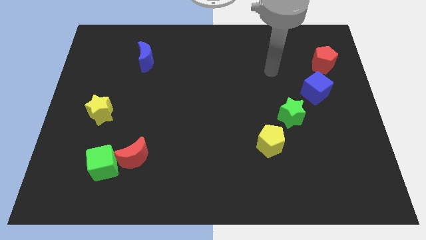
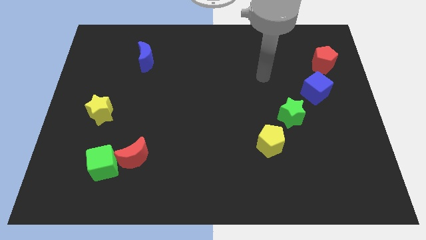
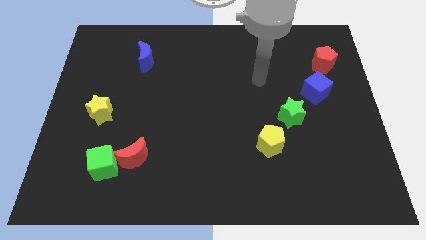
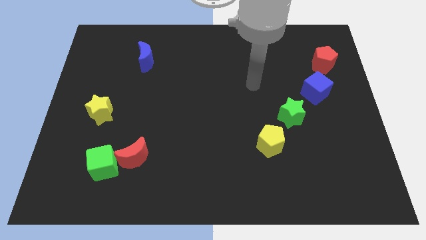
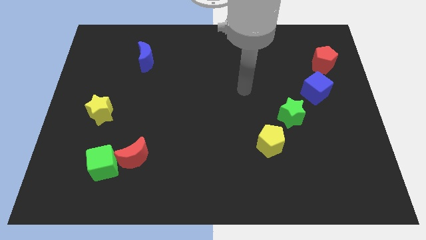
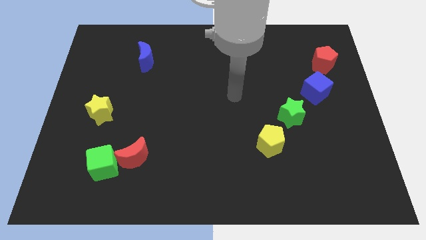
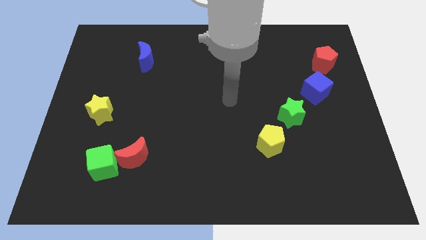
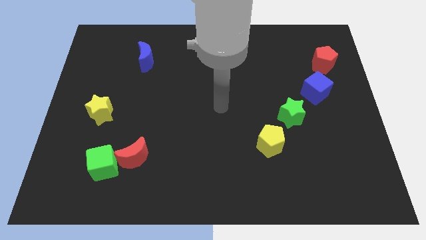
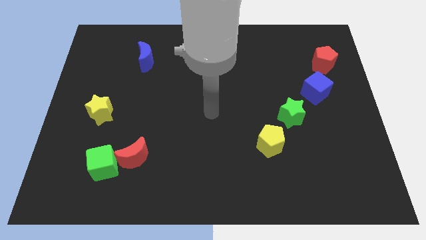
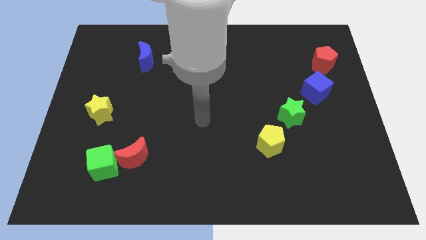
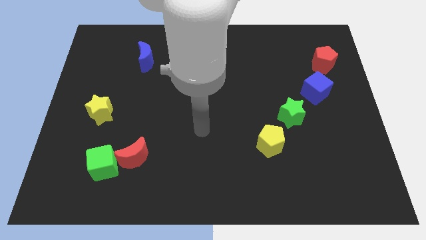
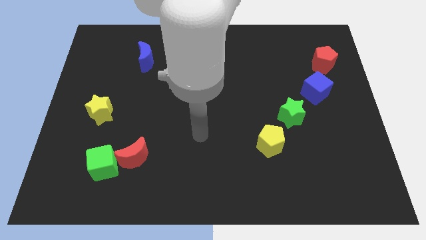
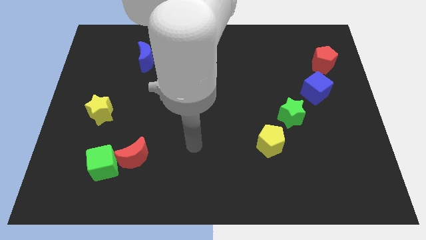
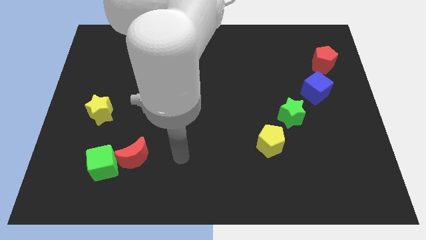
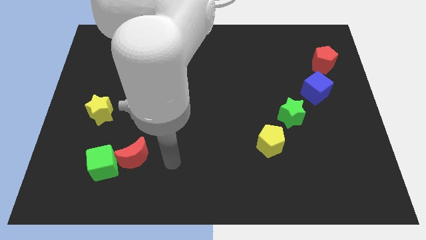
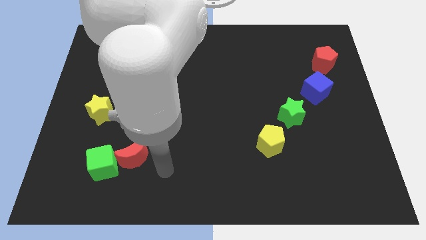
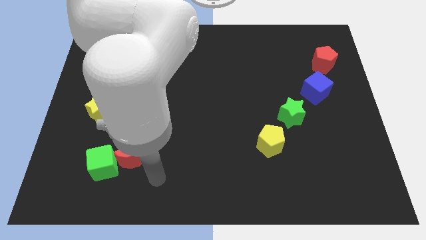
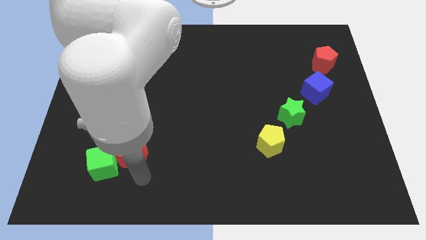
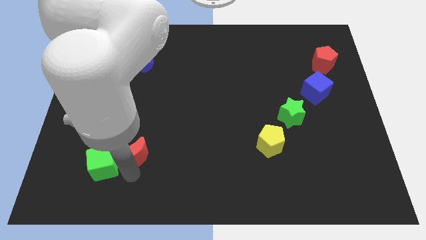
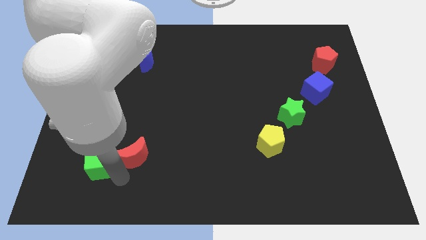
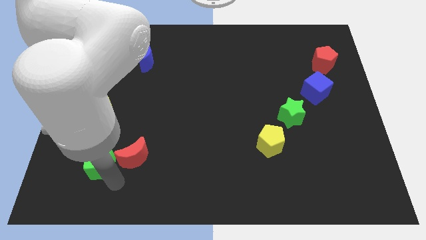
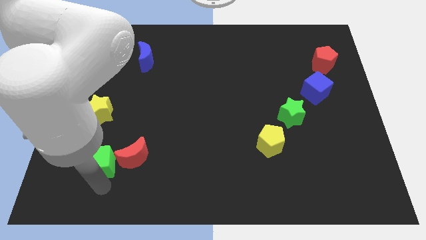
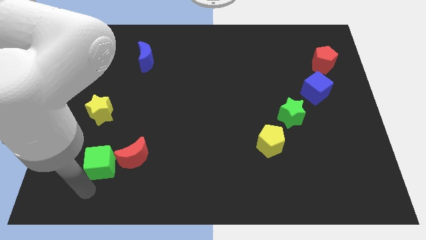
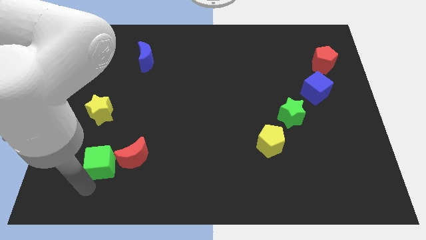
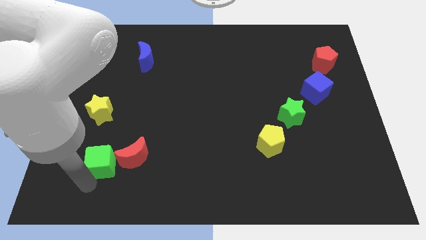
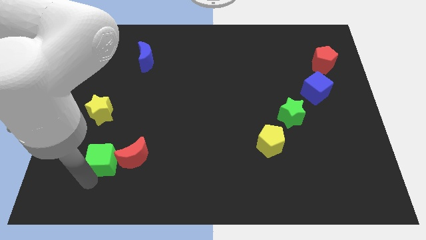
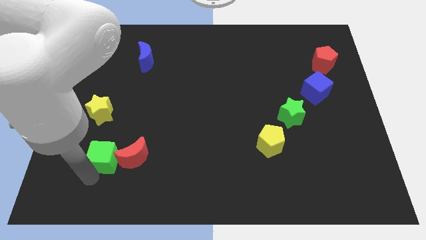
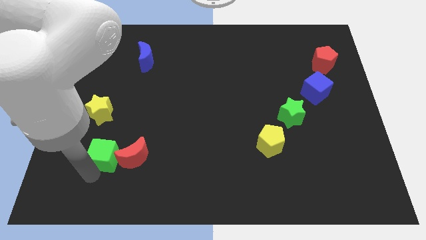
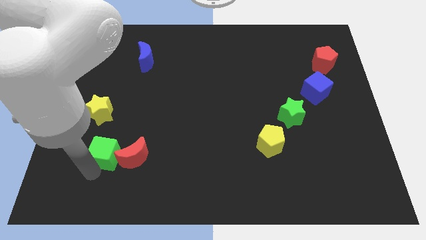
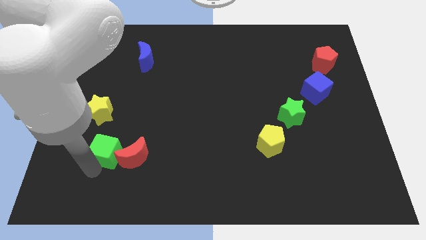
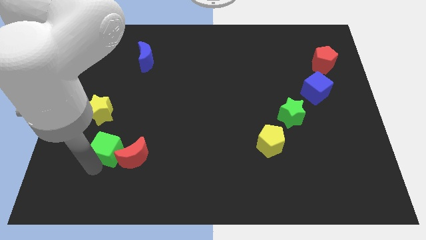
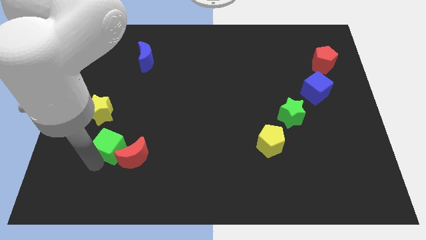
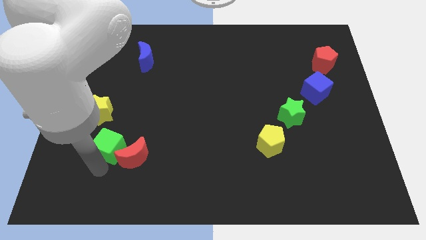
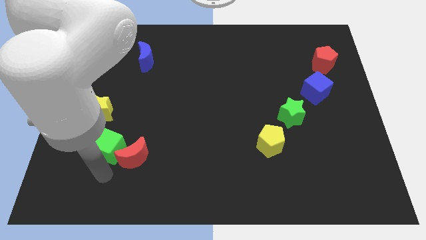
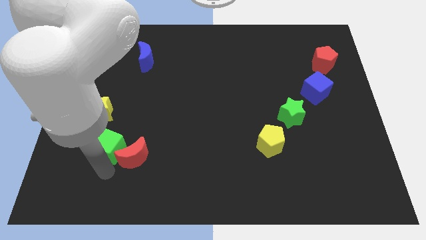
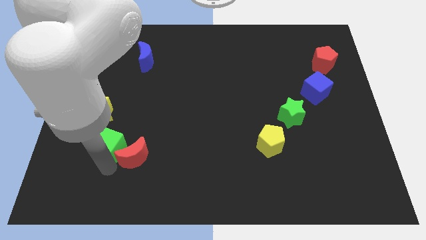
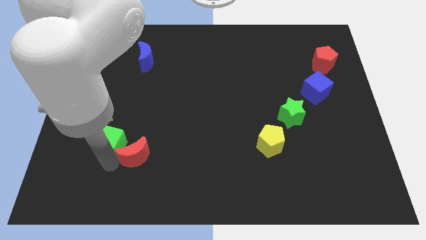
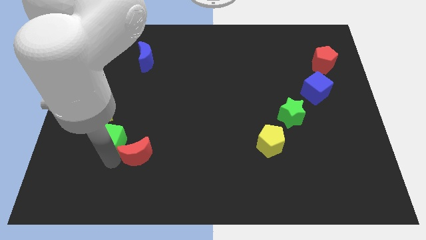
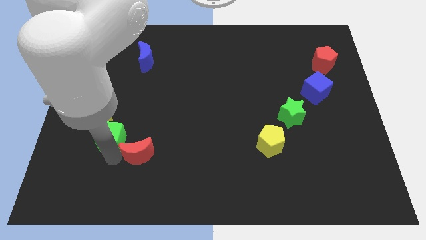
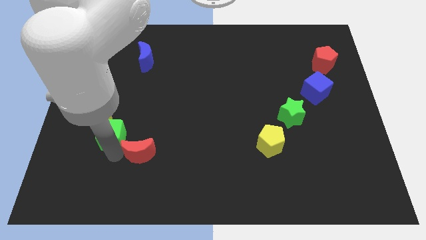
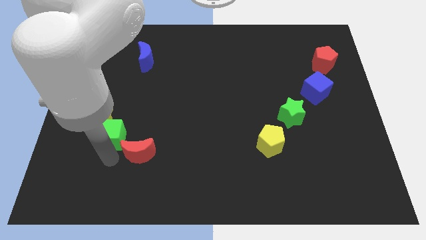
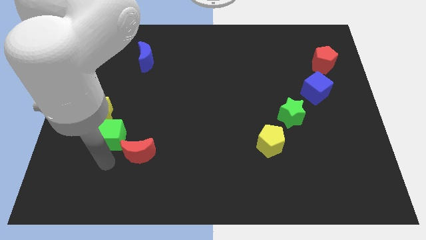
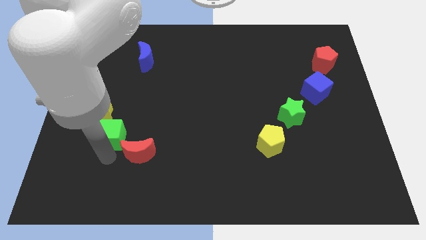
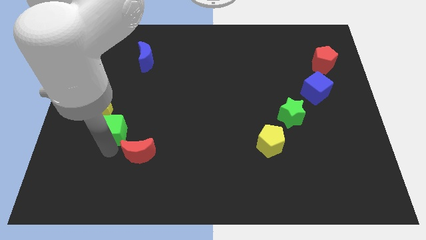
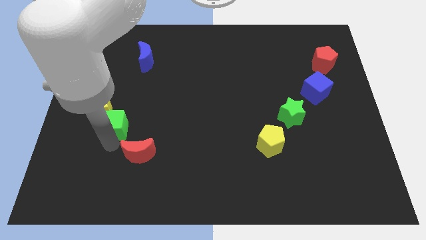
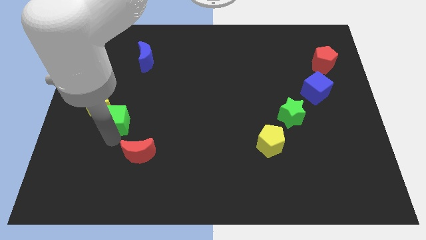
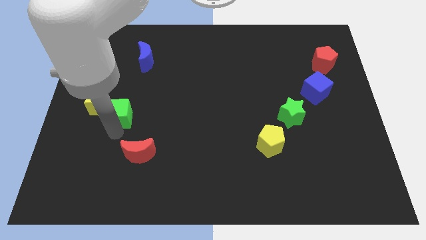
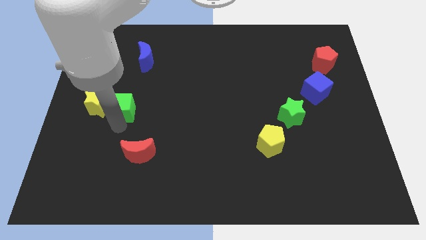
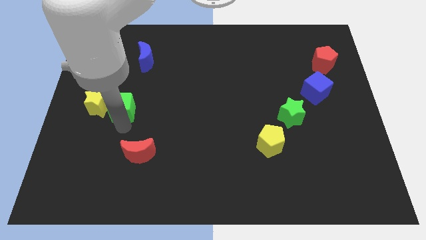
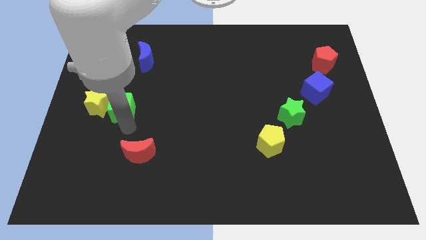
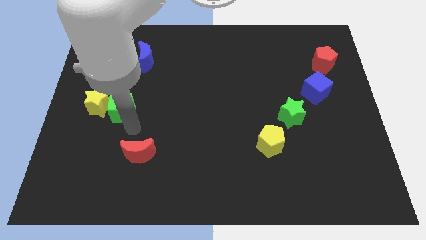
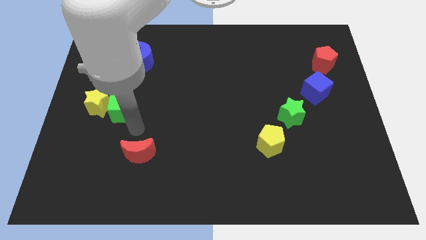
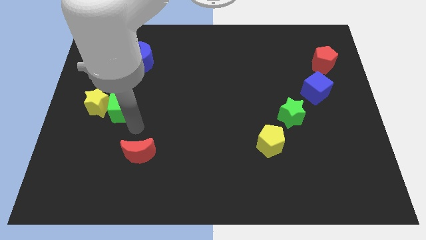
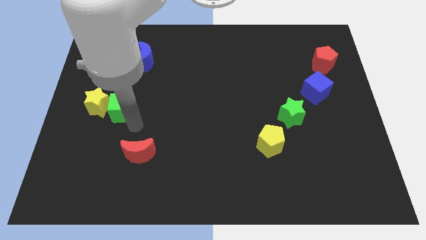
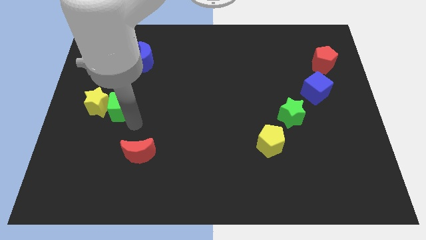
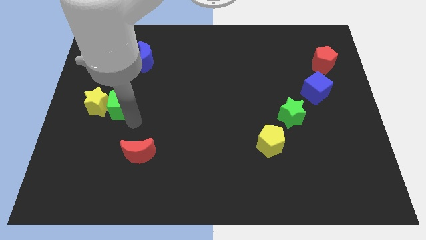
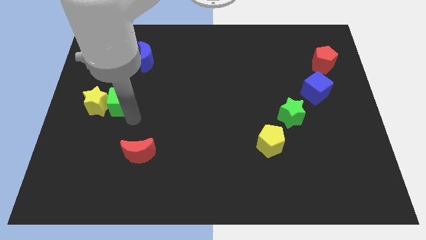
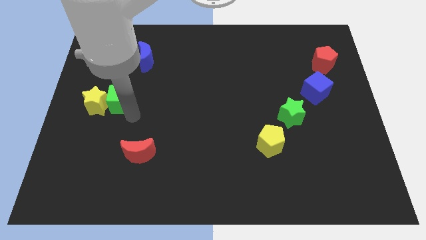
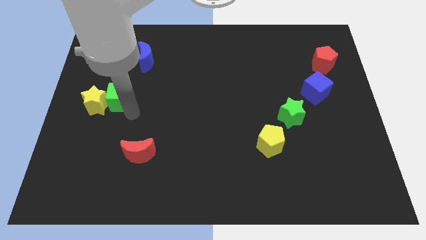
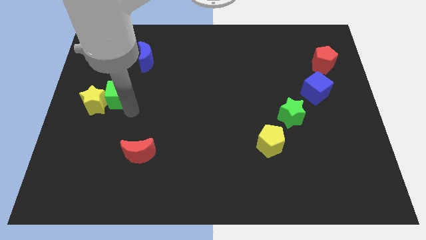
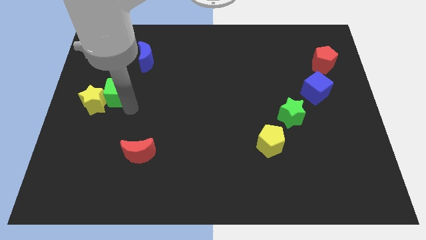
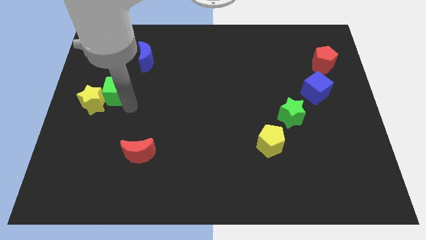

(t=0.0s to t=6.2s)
push the green cube upwards

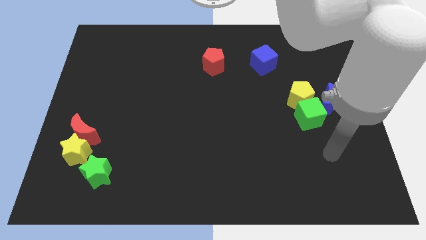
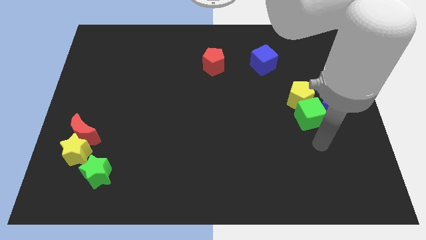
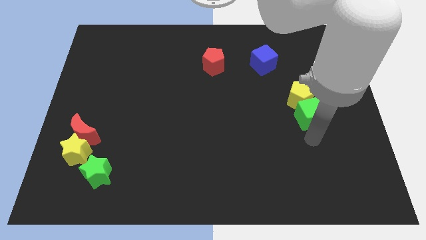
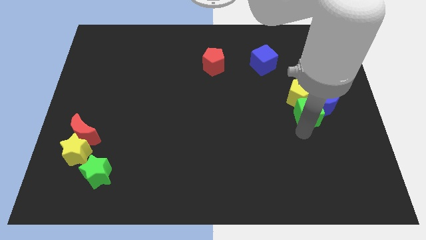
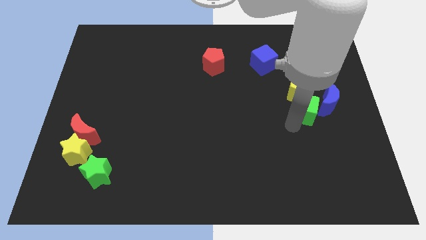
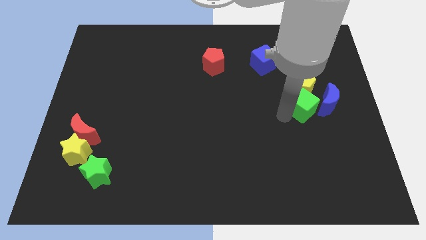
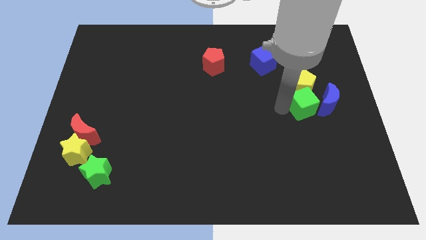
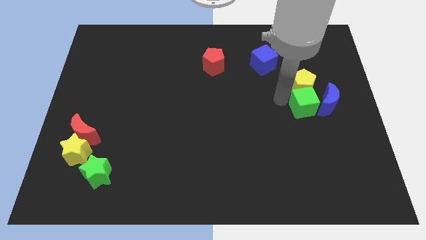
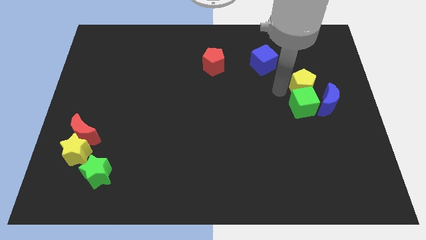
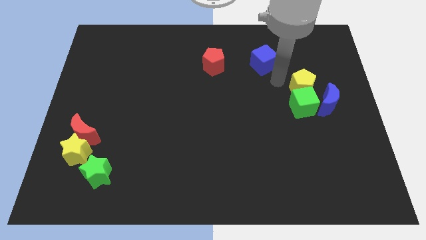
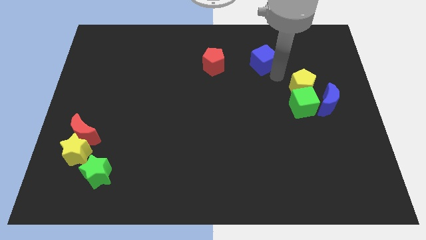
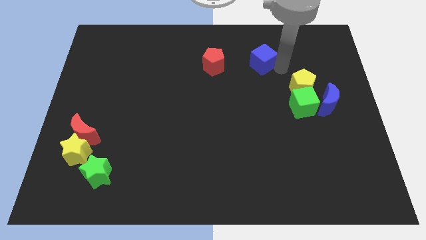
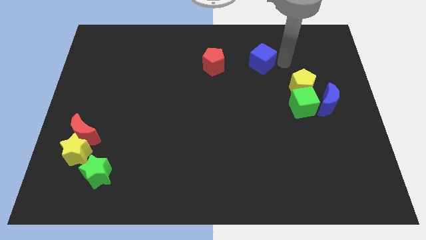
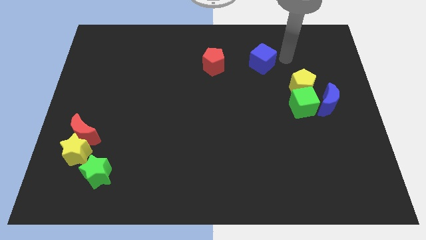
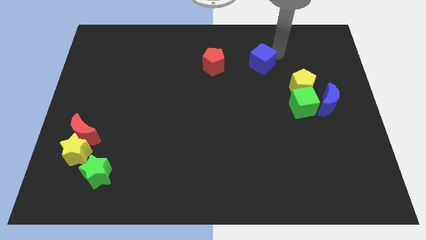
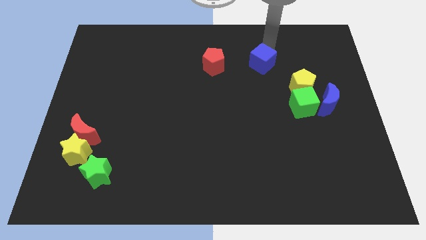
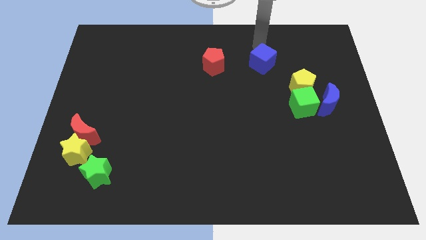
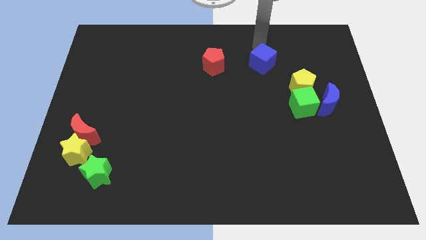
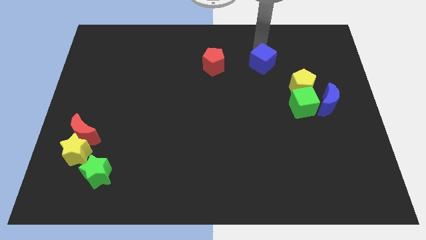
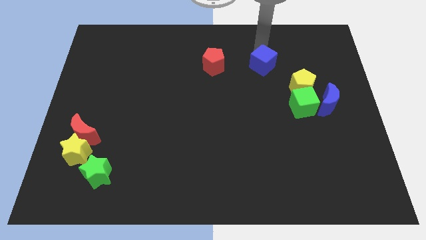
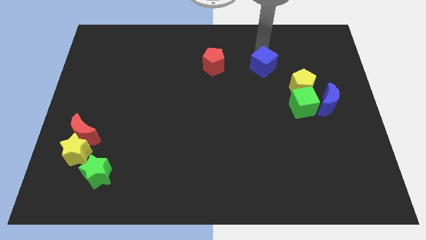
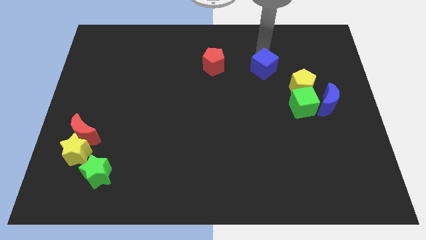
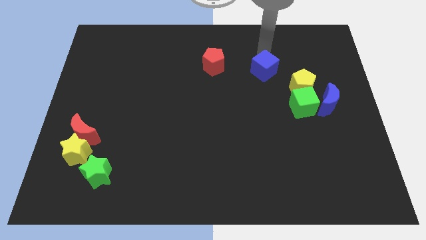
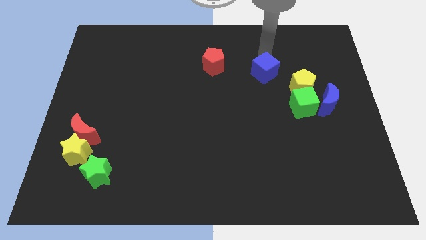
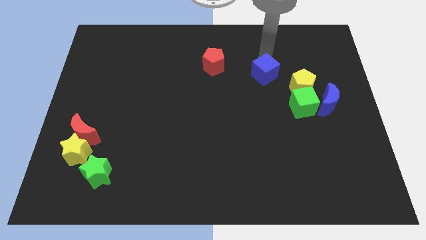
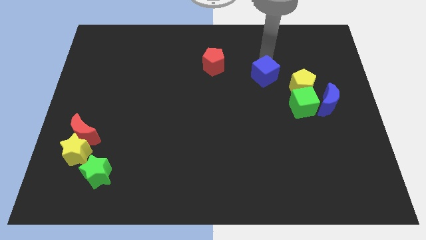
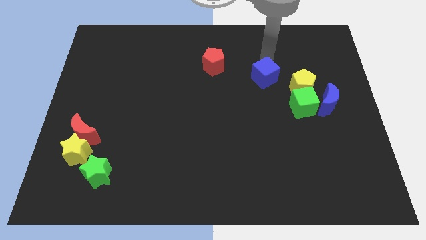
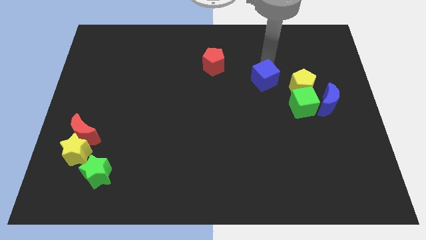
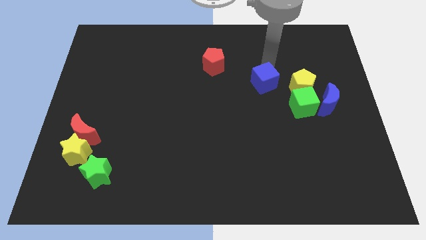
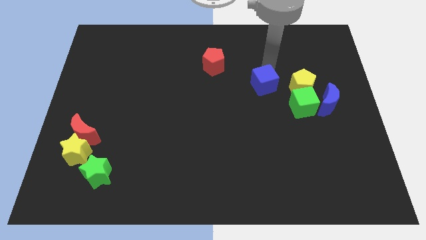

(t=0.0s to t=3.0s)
move the blue cube down a bit
